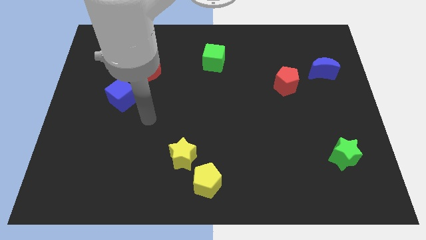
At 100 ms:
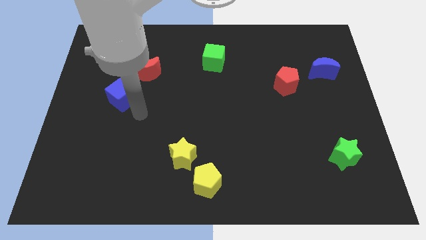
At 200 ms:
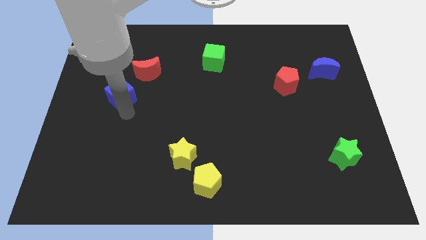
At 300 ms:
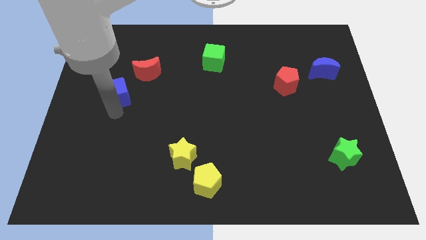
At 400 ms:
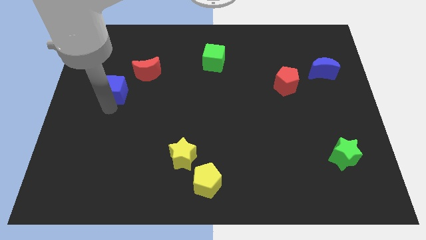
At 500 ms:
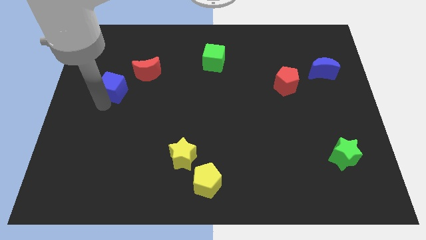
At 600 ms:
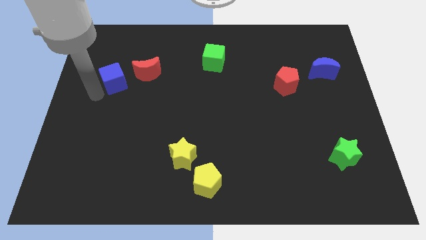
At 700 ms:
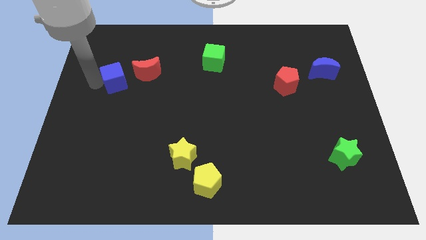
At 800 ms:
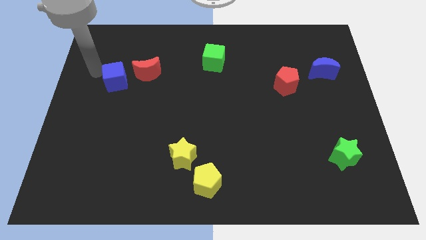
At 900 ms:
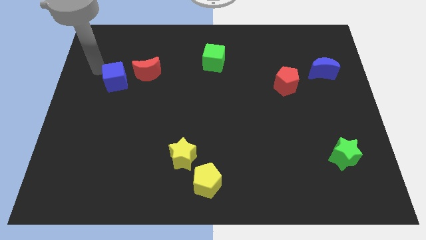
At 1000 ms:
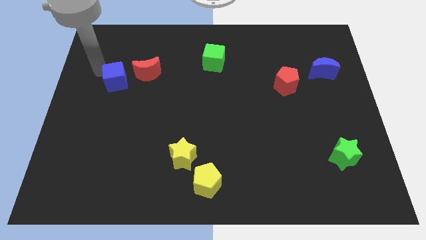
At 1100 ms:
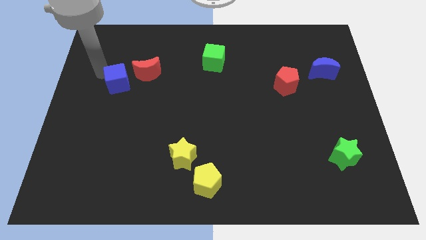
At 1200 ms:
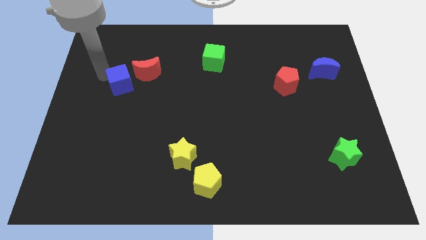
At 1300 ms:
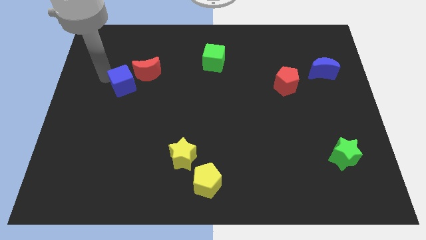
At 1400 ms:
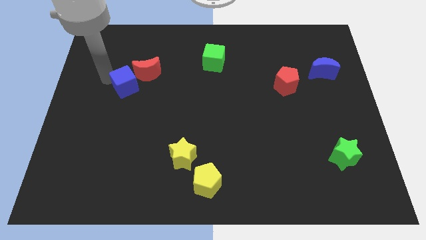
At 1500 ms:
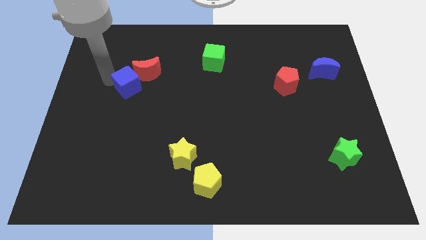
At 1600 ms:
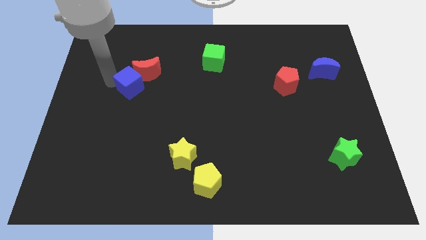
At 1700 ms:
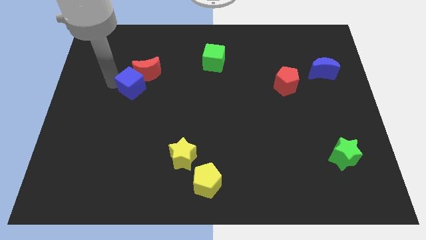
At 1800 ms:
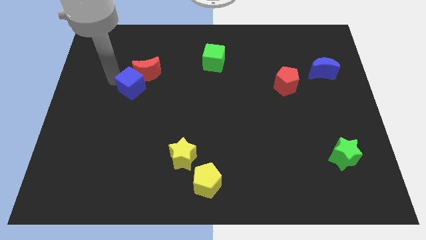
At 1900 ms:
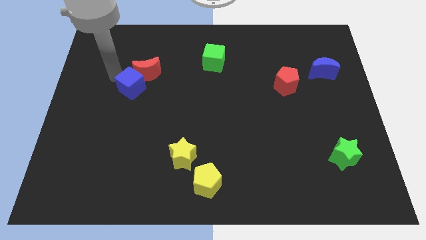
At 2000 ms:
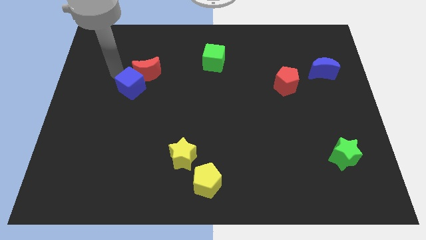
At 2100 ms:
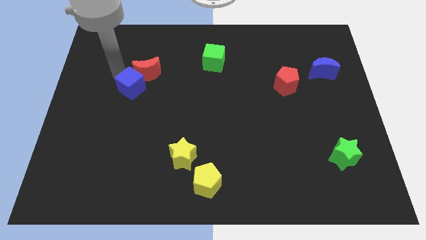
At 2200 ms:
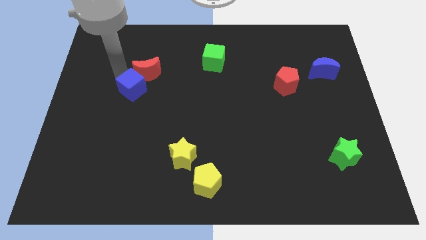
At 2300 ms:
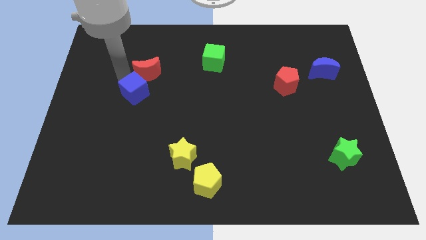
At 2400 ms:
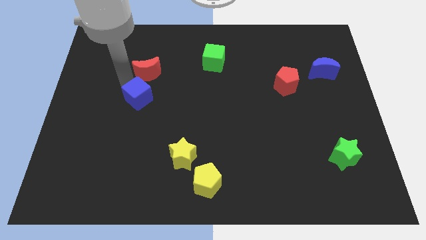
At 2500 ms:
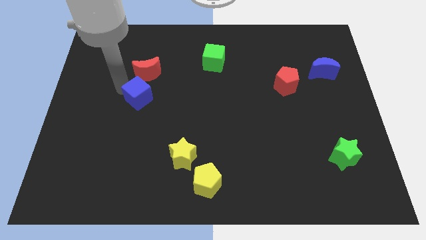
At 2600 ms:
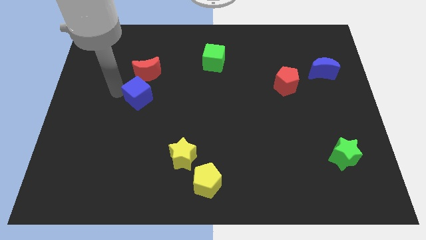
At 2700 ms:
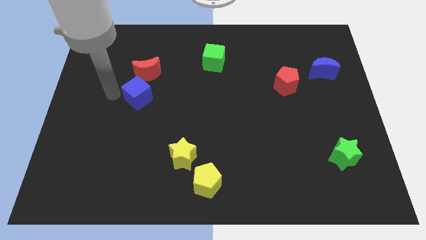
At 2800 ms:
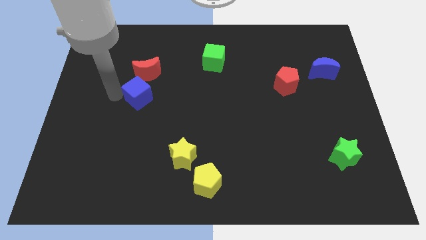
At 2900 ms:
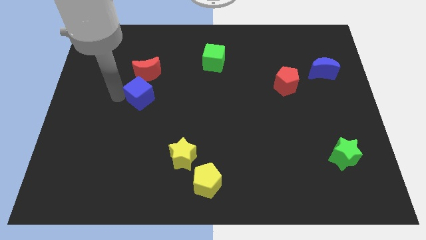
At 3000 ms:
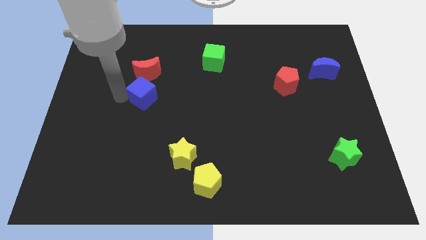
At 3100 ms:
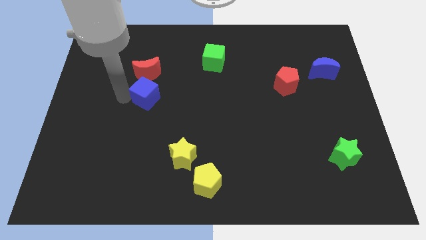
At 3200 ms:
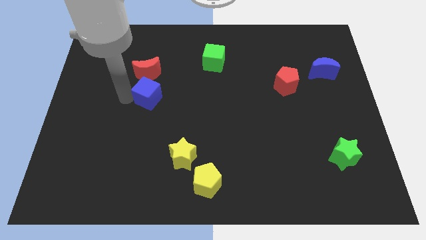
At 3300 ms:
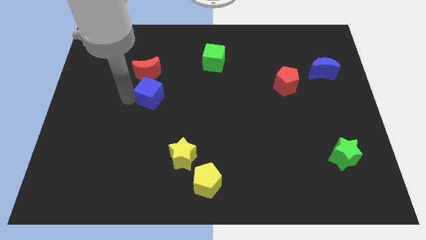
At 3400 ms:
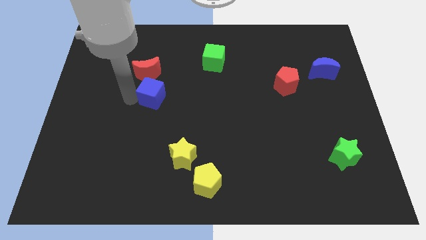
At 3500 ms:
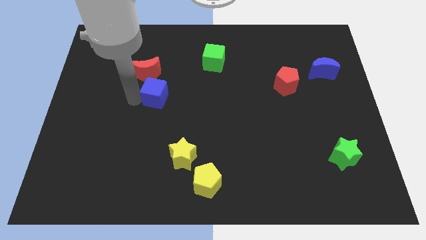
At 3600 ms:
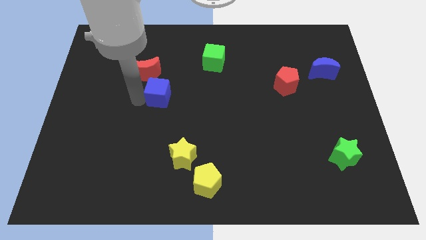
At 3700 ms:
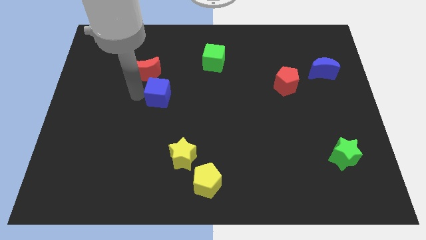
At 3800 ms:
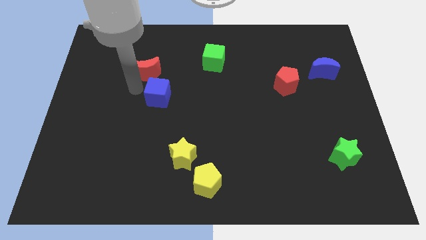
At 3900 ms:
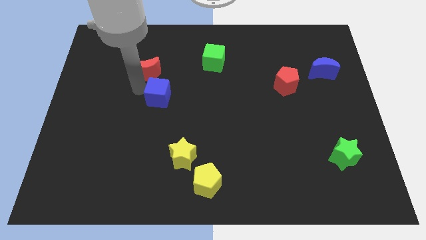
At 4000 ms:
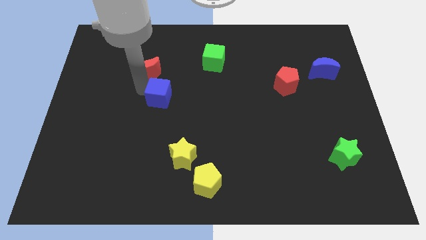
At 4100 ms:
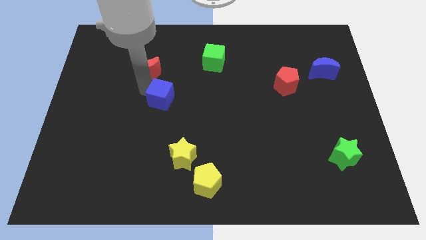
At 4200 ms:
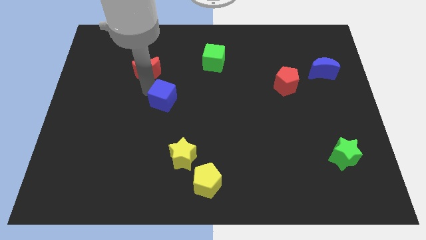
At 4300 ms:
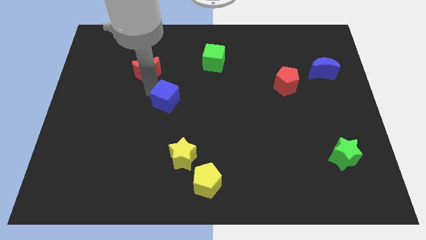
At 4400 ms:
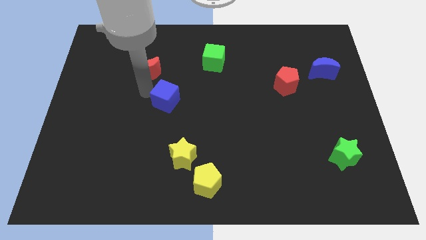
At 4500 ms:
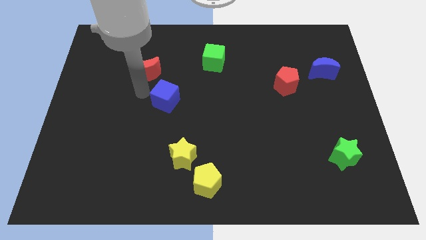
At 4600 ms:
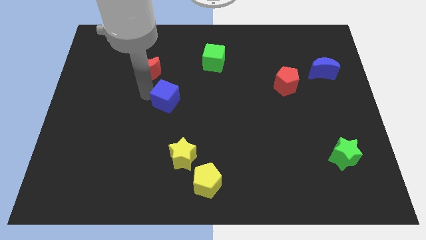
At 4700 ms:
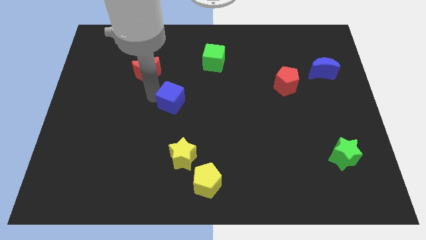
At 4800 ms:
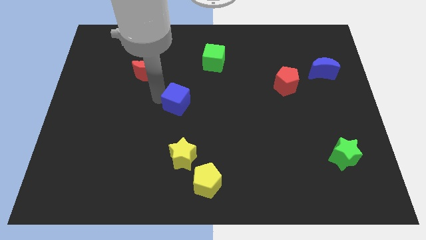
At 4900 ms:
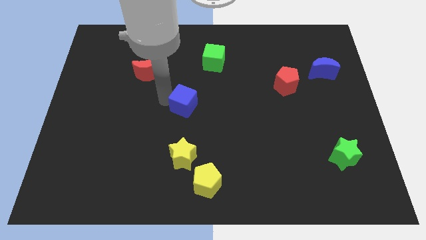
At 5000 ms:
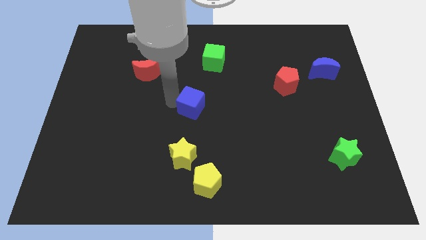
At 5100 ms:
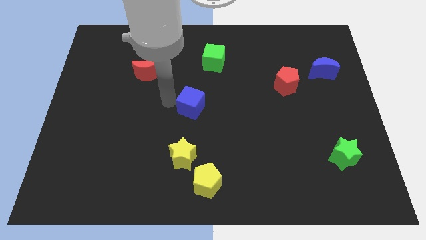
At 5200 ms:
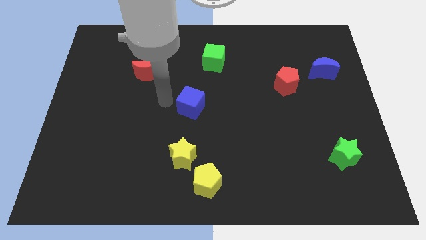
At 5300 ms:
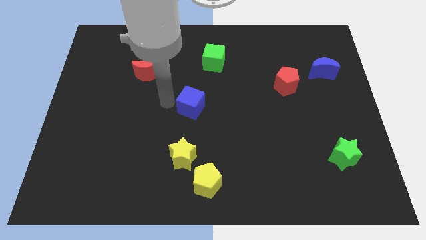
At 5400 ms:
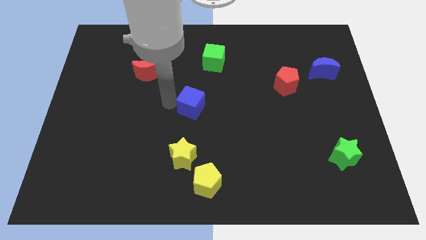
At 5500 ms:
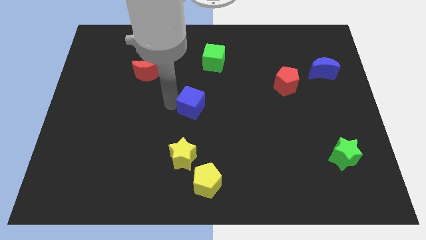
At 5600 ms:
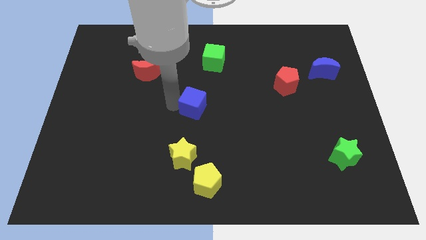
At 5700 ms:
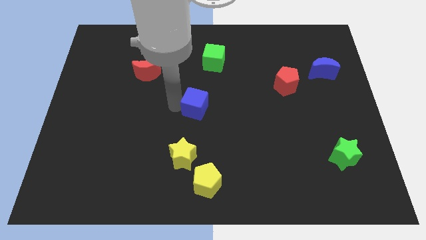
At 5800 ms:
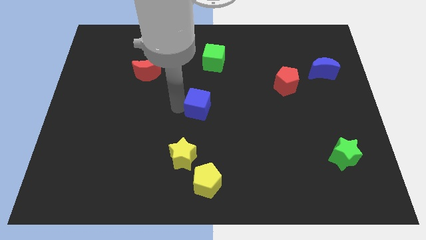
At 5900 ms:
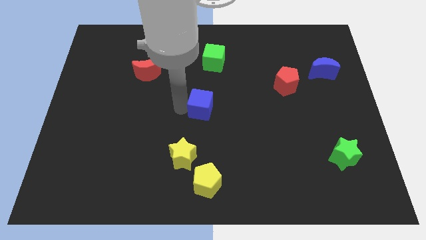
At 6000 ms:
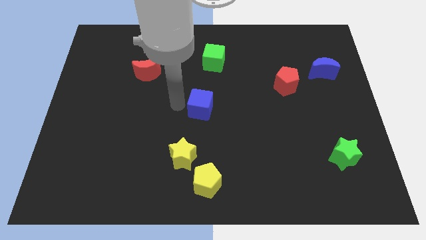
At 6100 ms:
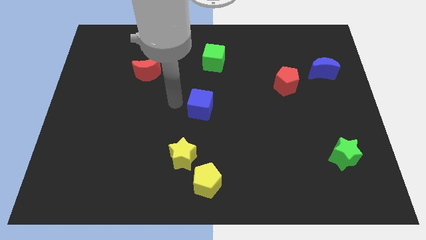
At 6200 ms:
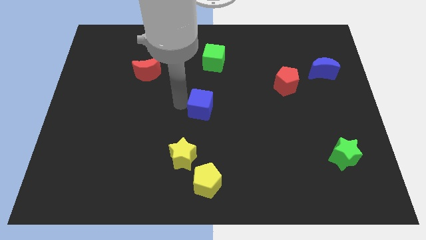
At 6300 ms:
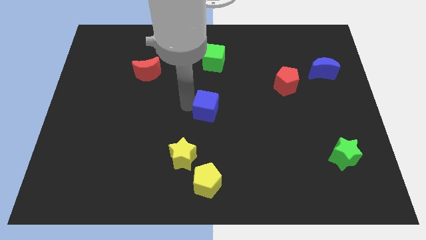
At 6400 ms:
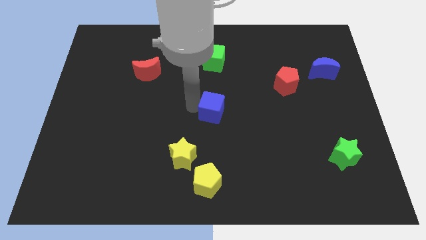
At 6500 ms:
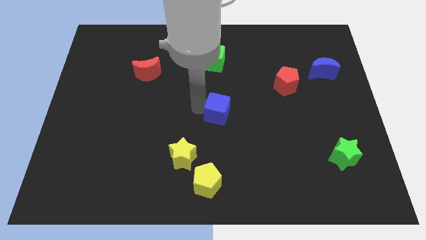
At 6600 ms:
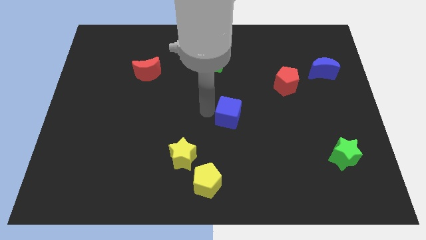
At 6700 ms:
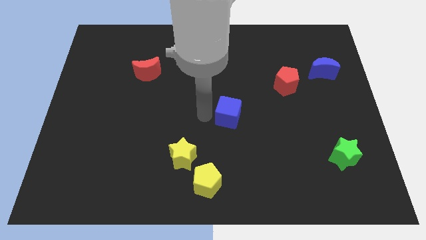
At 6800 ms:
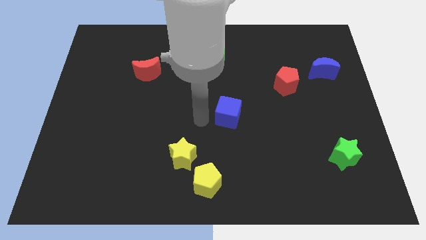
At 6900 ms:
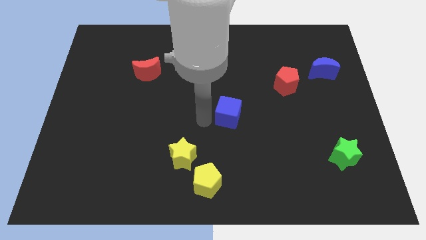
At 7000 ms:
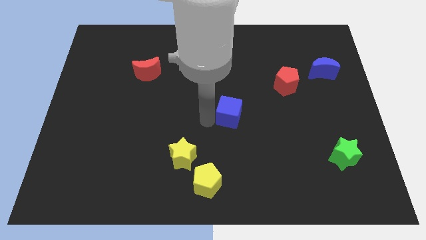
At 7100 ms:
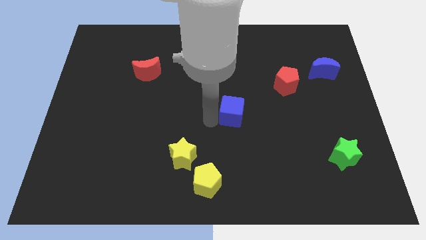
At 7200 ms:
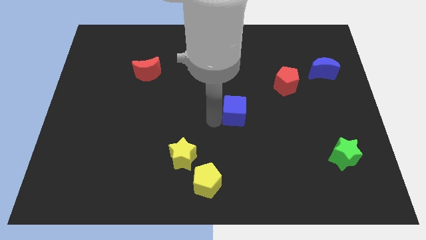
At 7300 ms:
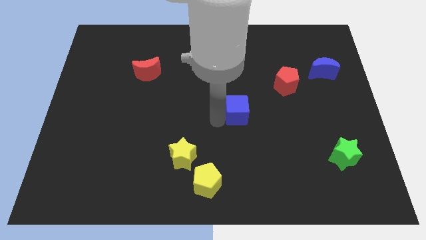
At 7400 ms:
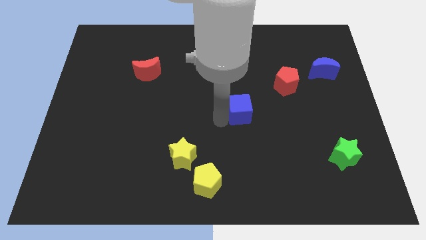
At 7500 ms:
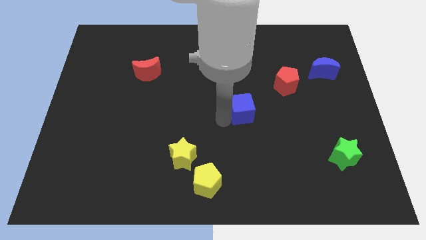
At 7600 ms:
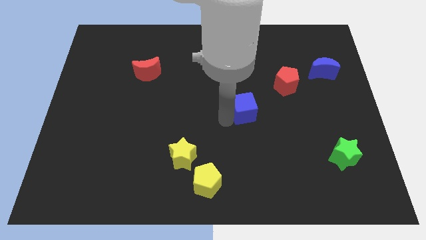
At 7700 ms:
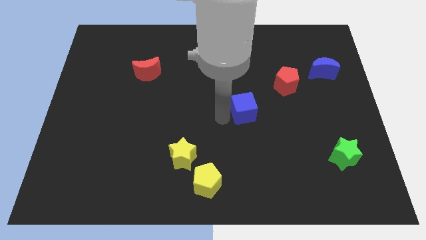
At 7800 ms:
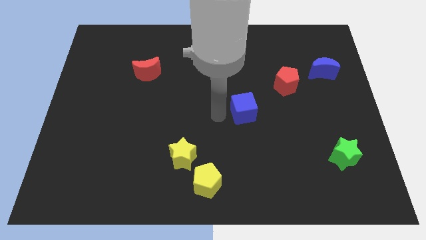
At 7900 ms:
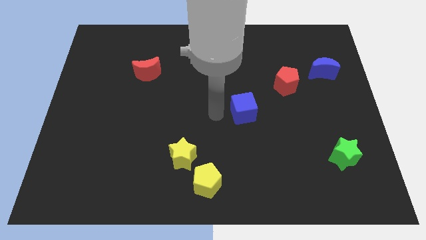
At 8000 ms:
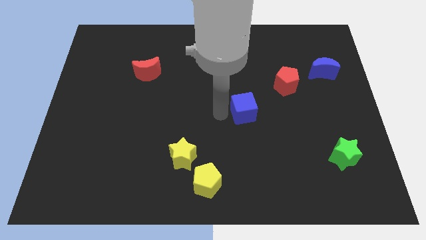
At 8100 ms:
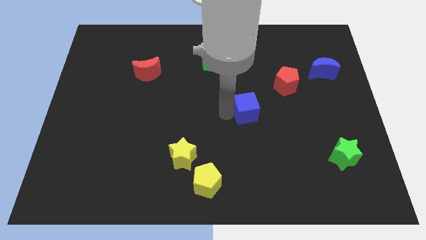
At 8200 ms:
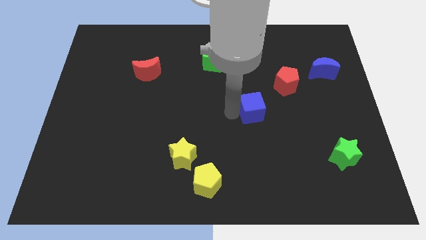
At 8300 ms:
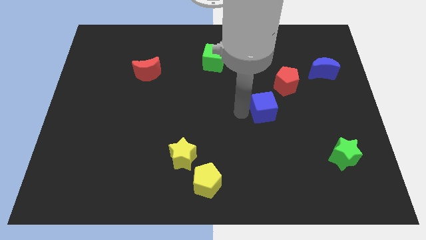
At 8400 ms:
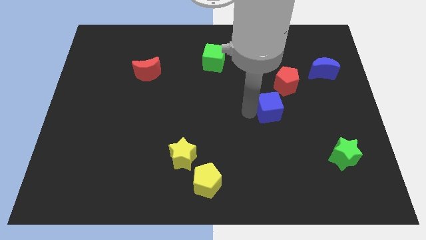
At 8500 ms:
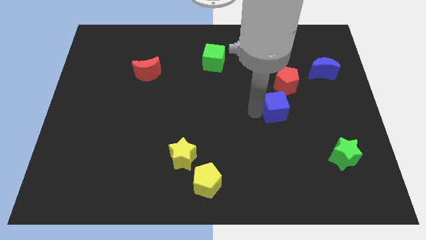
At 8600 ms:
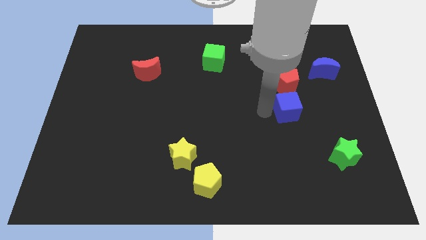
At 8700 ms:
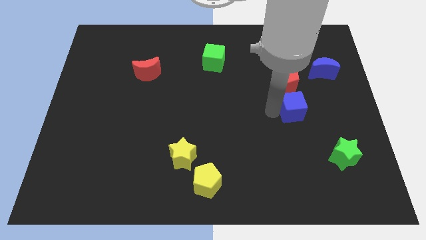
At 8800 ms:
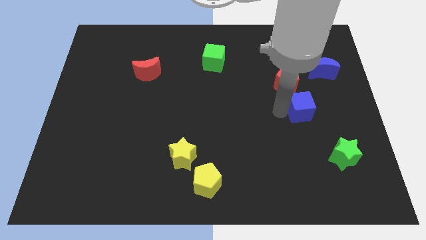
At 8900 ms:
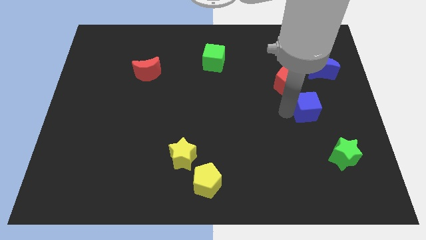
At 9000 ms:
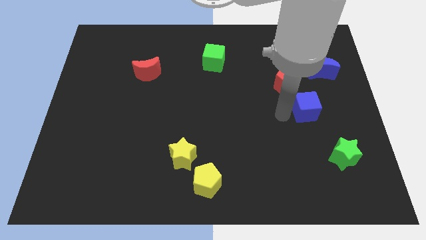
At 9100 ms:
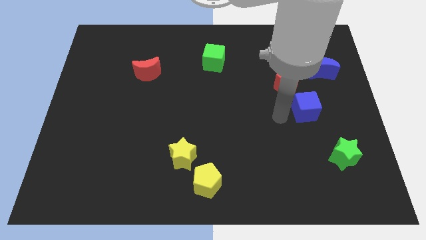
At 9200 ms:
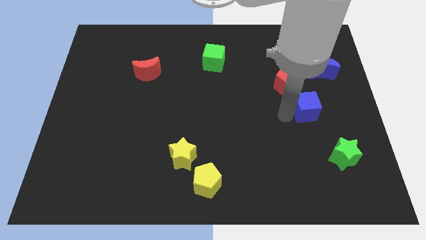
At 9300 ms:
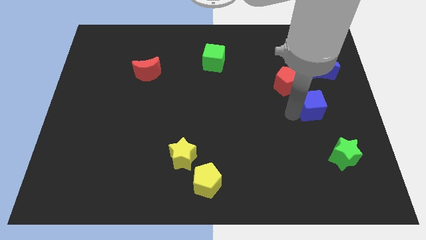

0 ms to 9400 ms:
move the blue cube to the bottom side of the blue moon
